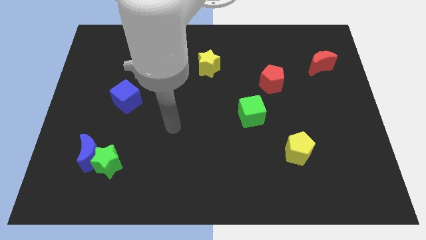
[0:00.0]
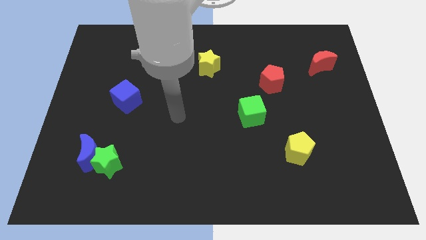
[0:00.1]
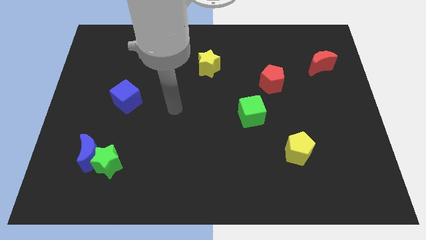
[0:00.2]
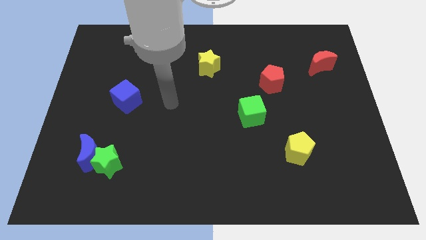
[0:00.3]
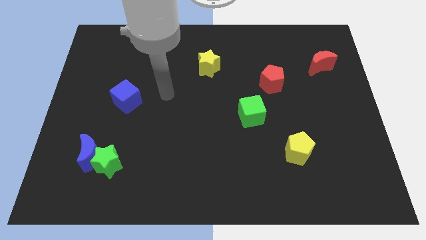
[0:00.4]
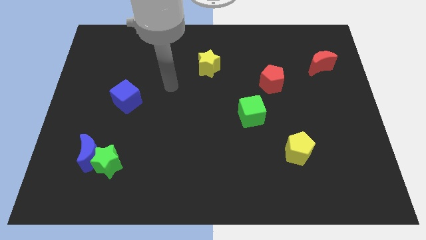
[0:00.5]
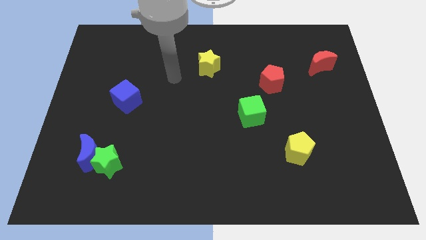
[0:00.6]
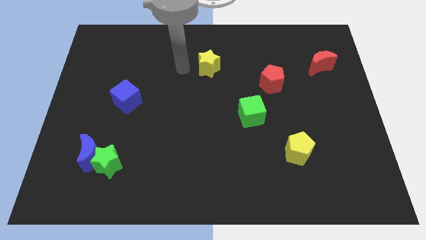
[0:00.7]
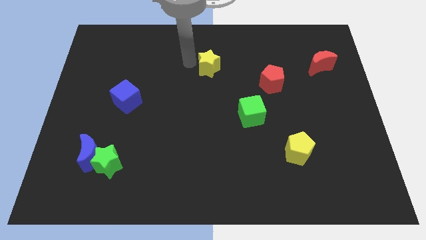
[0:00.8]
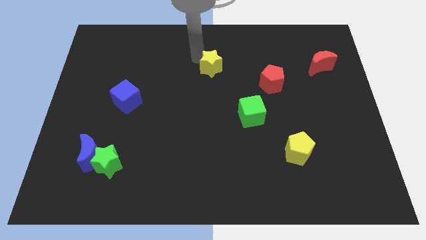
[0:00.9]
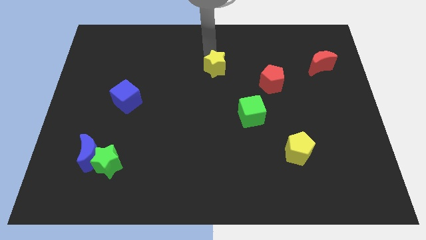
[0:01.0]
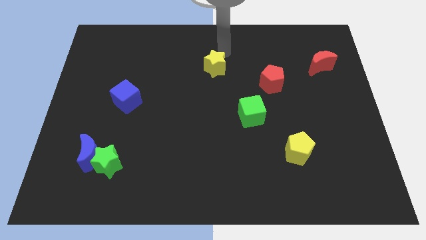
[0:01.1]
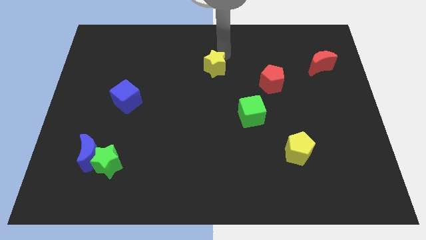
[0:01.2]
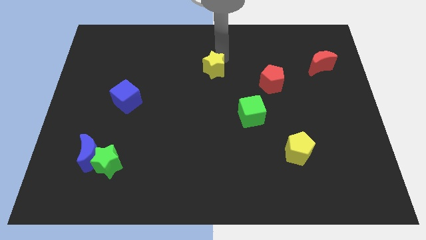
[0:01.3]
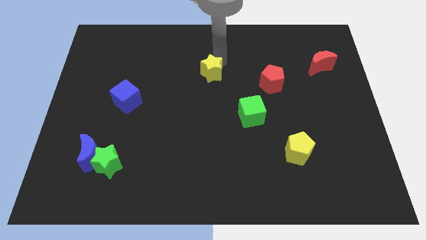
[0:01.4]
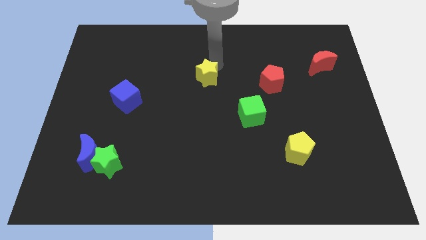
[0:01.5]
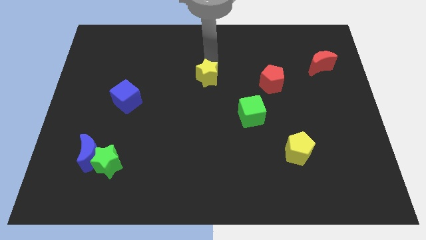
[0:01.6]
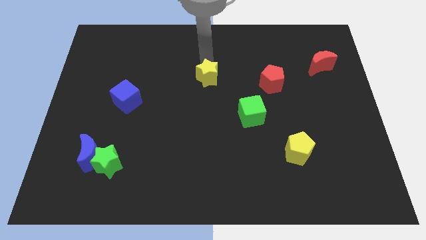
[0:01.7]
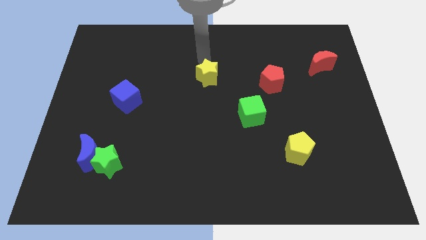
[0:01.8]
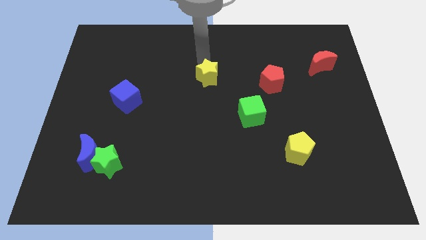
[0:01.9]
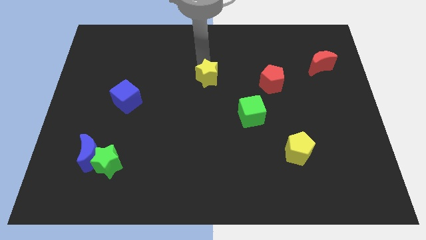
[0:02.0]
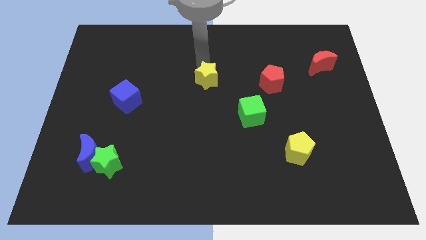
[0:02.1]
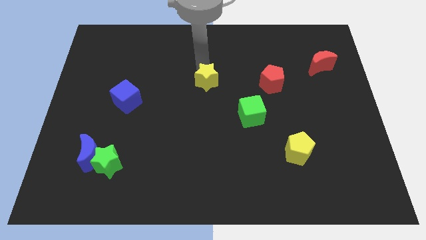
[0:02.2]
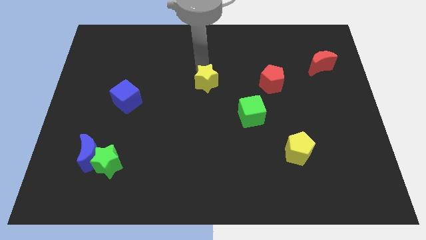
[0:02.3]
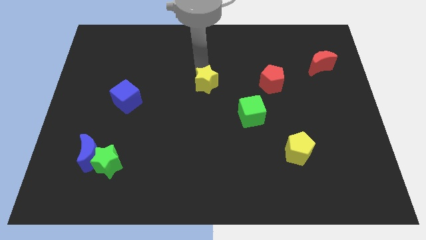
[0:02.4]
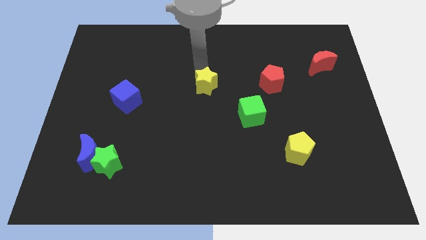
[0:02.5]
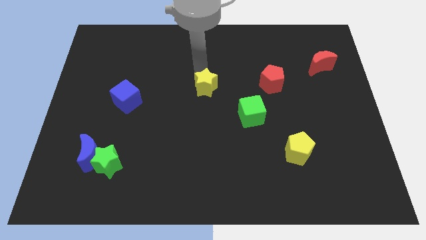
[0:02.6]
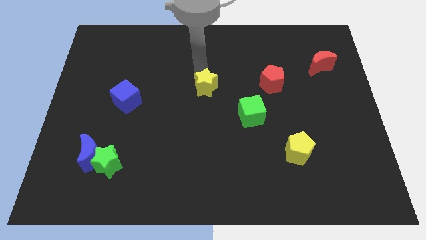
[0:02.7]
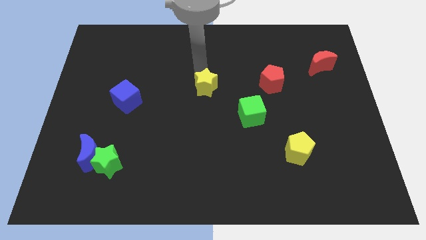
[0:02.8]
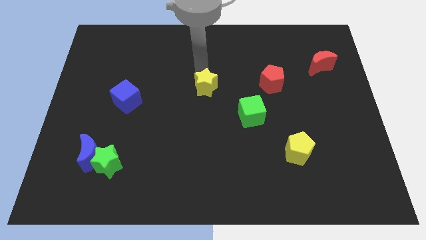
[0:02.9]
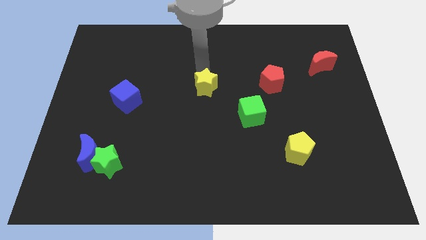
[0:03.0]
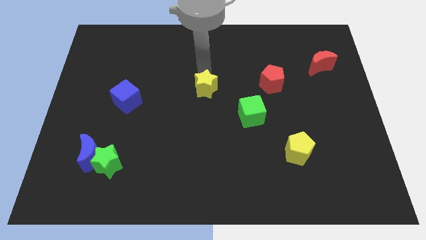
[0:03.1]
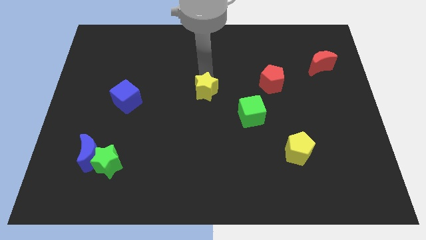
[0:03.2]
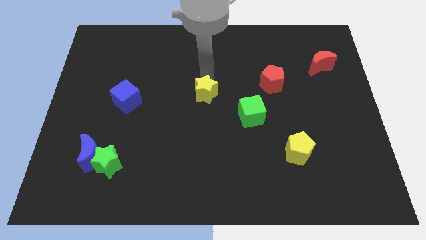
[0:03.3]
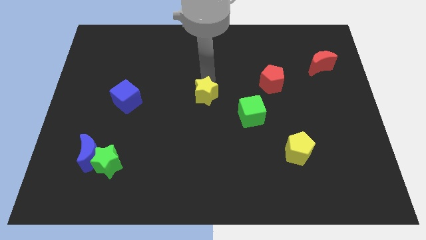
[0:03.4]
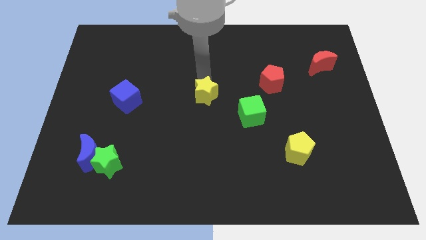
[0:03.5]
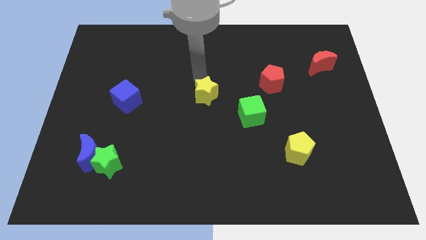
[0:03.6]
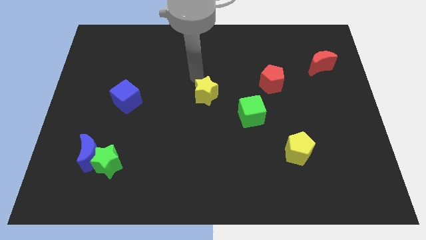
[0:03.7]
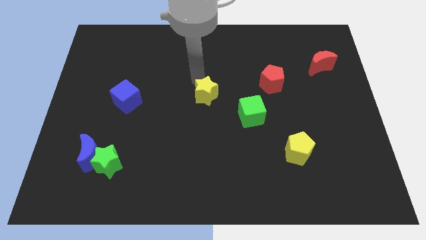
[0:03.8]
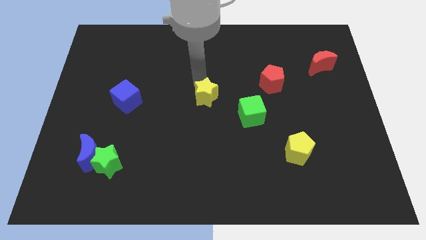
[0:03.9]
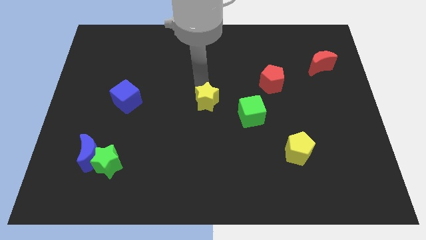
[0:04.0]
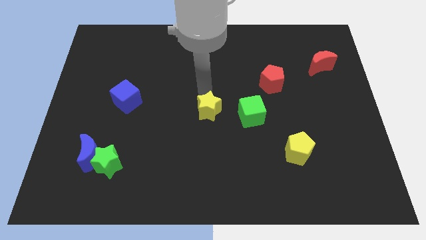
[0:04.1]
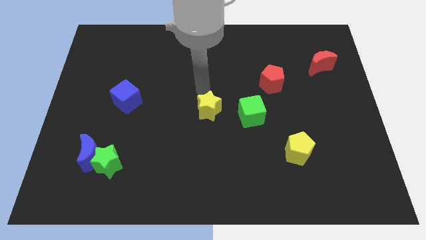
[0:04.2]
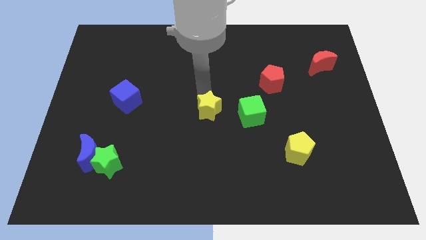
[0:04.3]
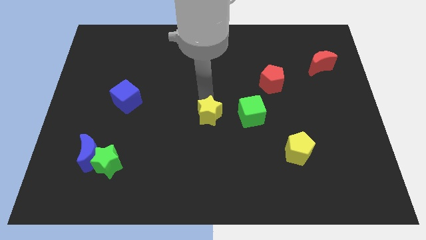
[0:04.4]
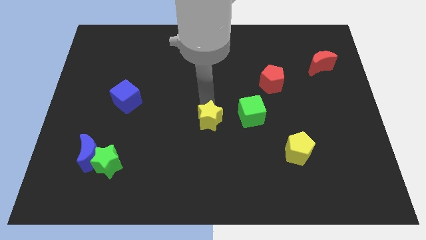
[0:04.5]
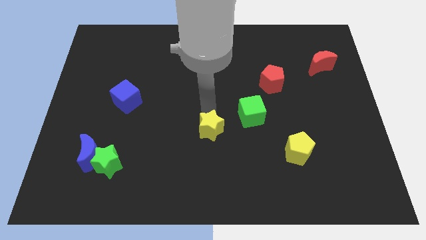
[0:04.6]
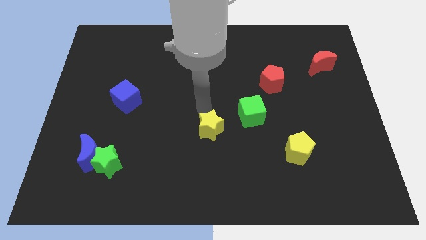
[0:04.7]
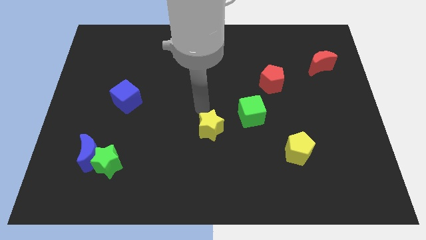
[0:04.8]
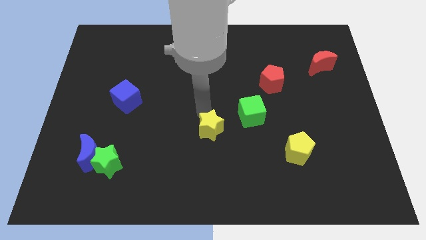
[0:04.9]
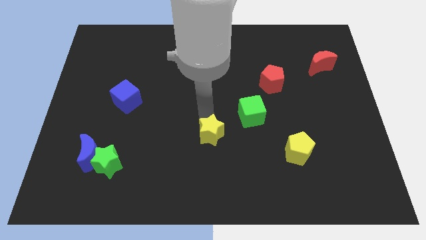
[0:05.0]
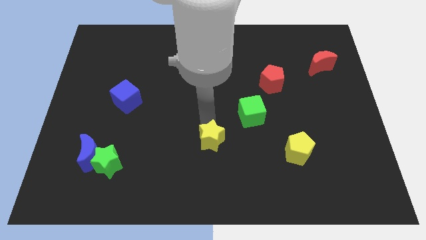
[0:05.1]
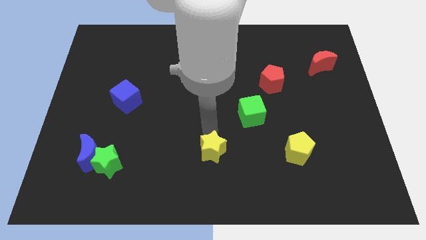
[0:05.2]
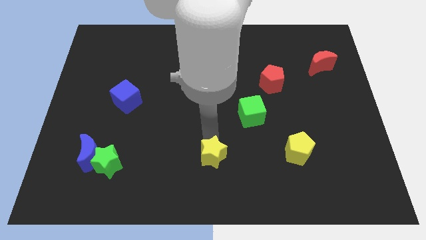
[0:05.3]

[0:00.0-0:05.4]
move the yellow star to the bottom
